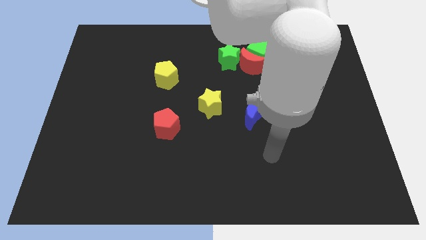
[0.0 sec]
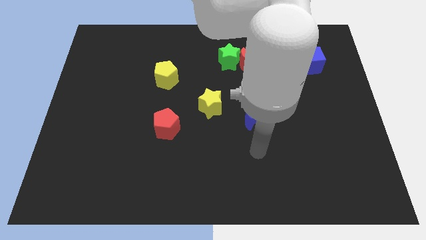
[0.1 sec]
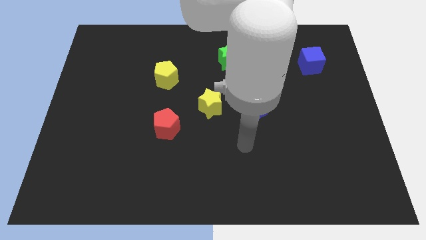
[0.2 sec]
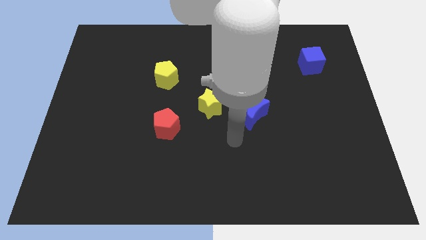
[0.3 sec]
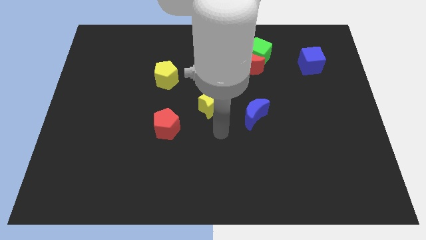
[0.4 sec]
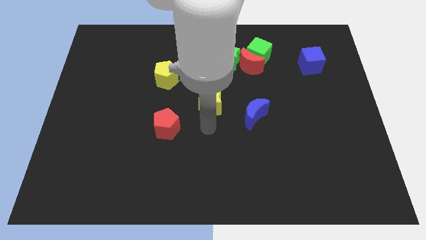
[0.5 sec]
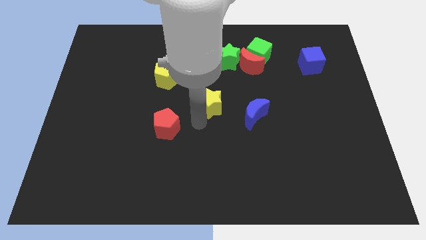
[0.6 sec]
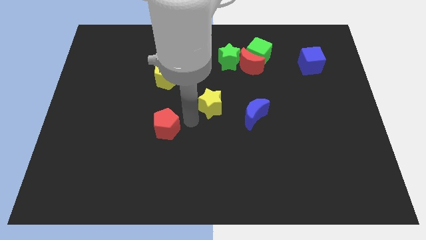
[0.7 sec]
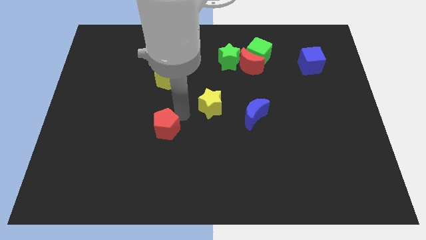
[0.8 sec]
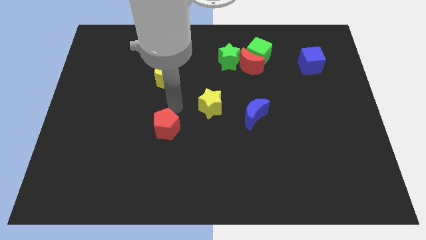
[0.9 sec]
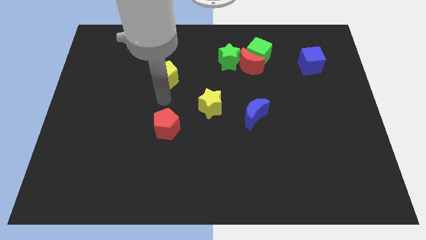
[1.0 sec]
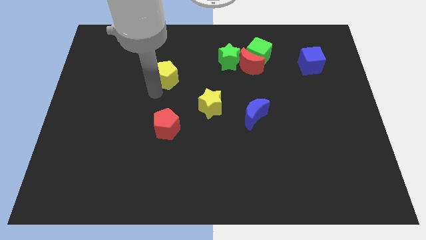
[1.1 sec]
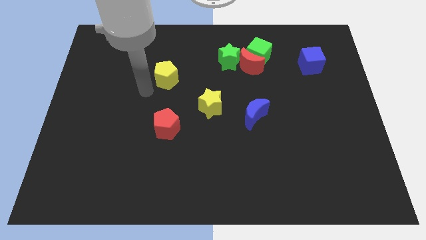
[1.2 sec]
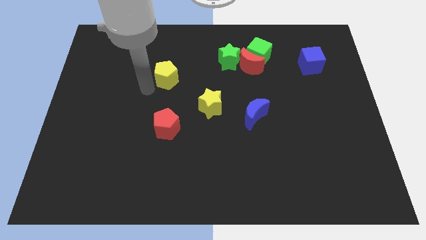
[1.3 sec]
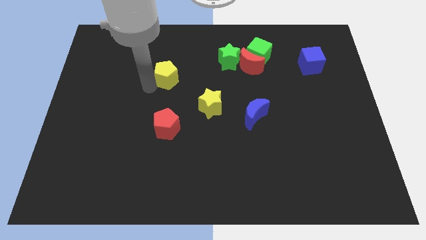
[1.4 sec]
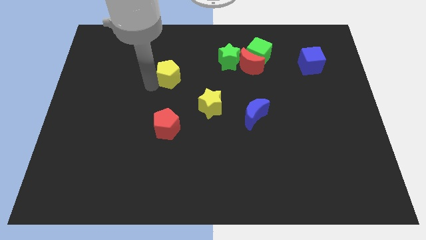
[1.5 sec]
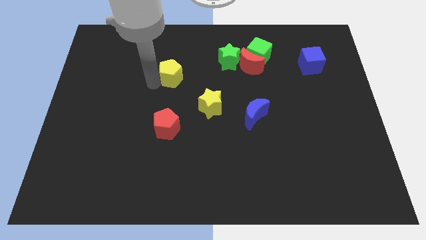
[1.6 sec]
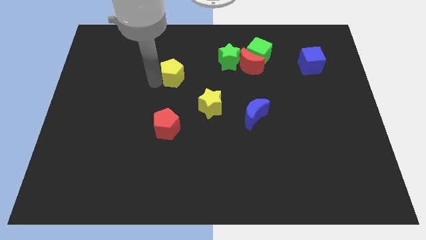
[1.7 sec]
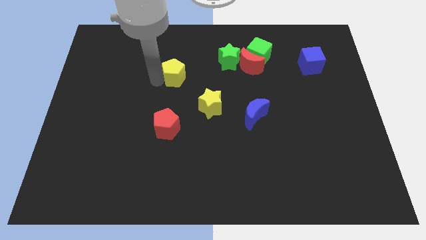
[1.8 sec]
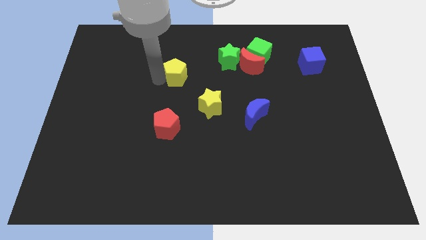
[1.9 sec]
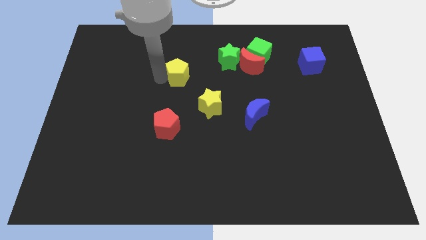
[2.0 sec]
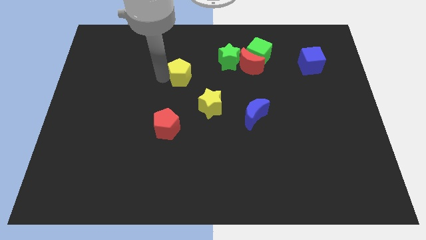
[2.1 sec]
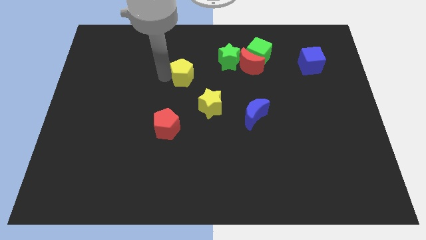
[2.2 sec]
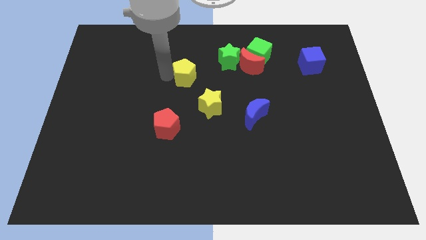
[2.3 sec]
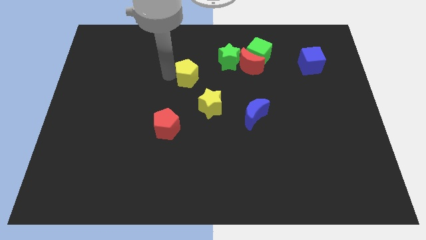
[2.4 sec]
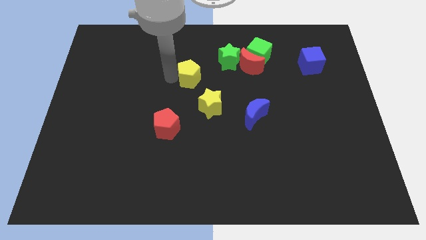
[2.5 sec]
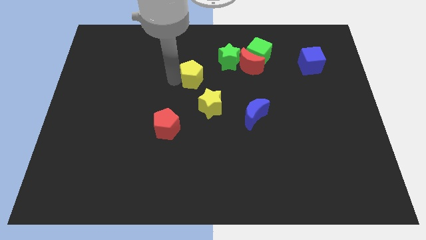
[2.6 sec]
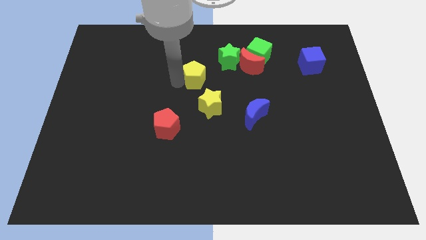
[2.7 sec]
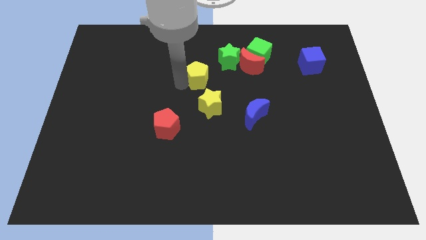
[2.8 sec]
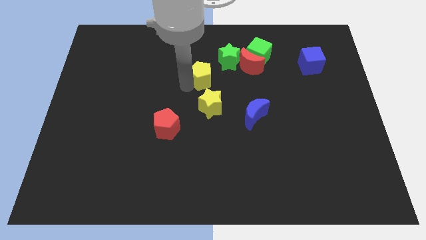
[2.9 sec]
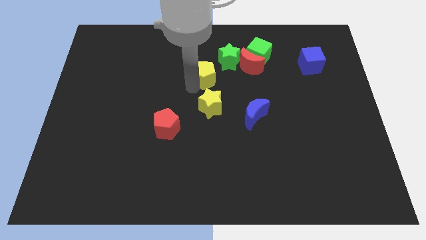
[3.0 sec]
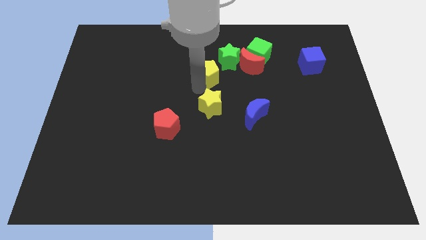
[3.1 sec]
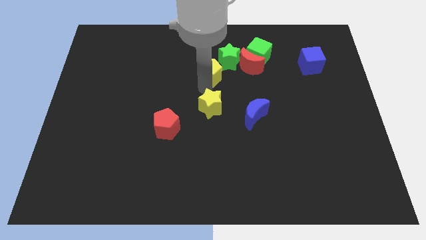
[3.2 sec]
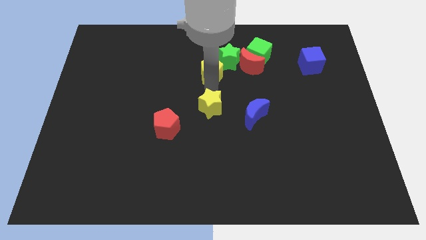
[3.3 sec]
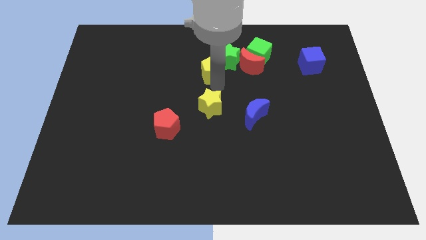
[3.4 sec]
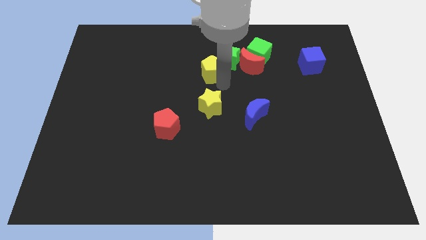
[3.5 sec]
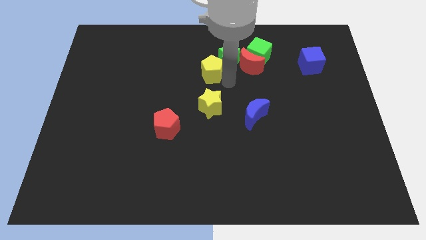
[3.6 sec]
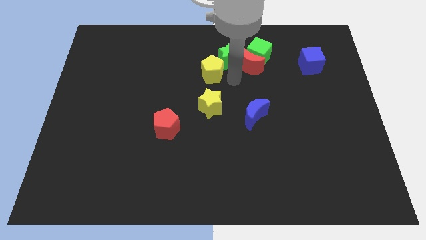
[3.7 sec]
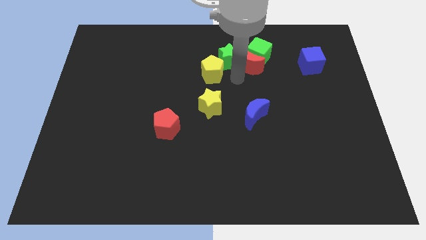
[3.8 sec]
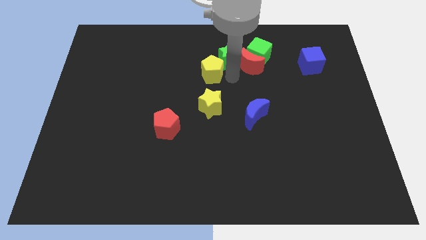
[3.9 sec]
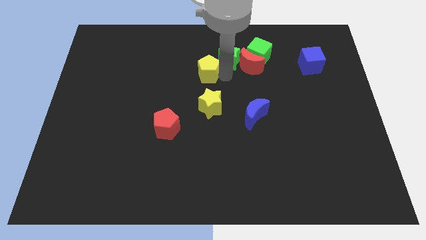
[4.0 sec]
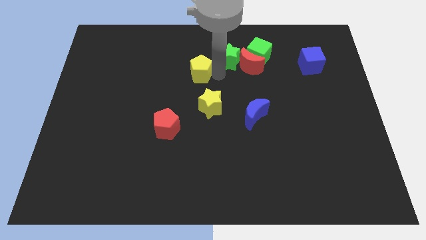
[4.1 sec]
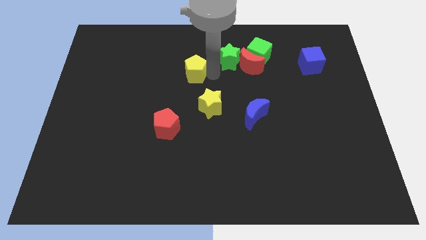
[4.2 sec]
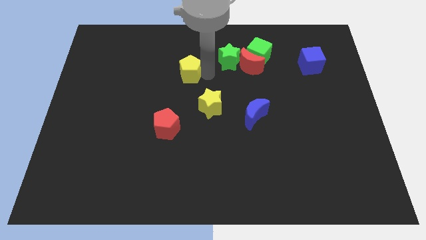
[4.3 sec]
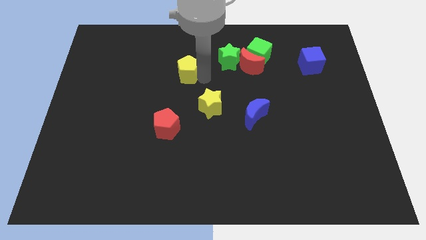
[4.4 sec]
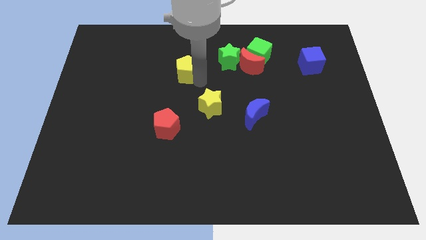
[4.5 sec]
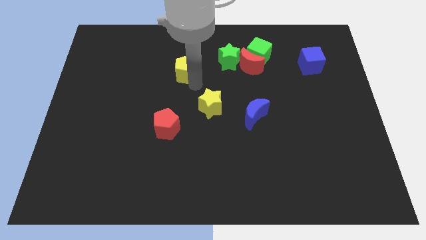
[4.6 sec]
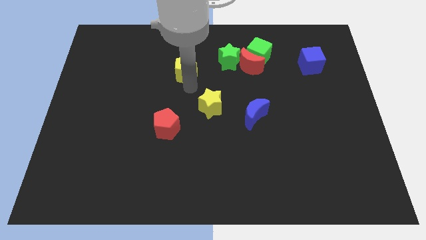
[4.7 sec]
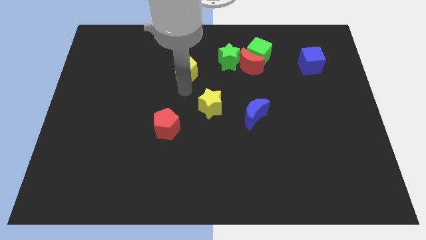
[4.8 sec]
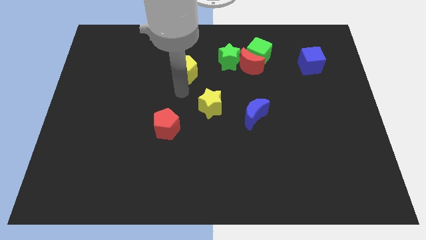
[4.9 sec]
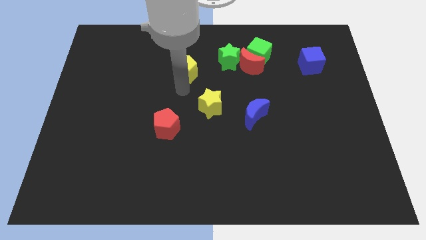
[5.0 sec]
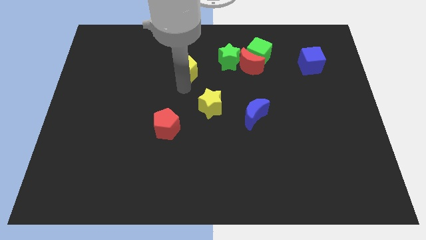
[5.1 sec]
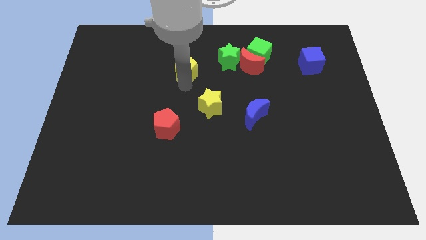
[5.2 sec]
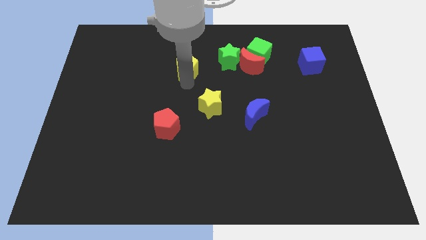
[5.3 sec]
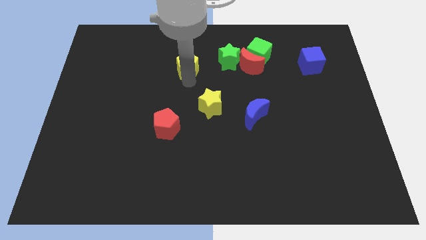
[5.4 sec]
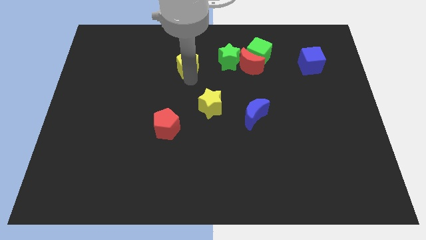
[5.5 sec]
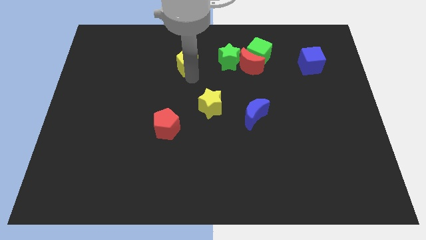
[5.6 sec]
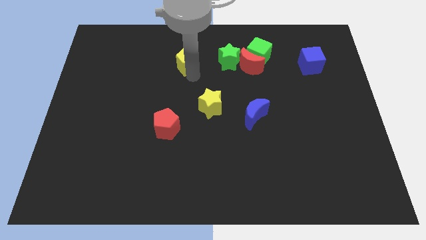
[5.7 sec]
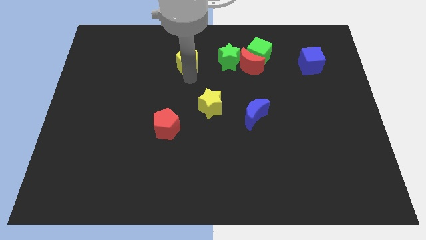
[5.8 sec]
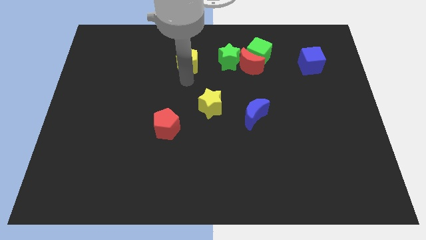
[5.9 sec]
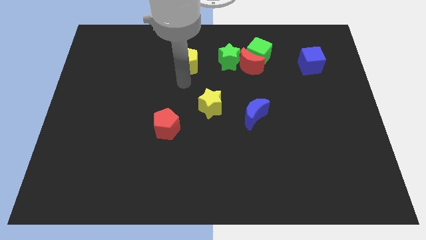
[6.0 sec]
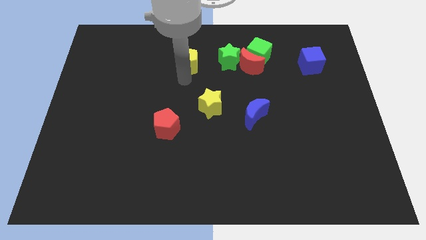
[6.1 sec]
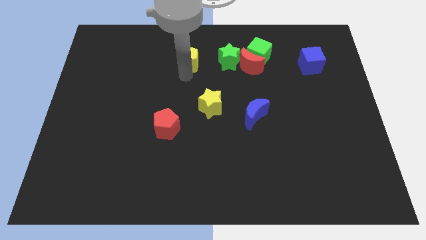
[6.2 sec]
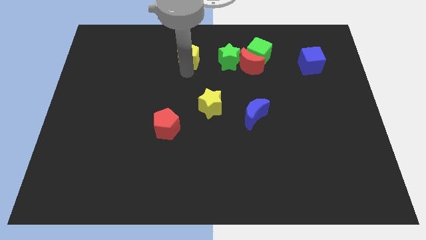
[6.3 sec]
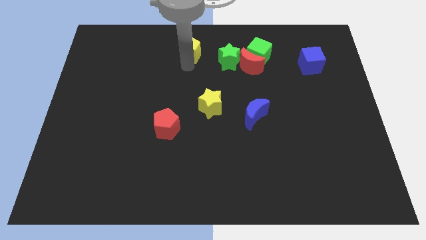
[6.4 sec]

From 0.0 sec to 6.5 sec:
put the yellow pentagon to the top

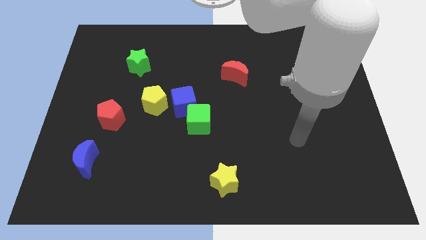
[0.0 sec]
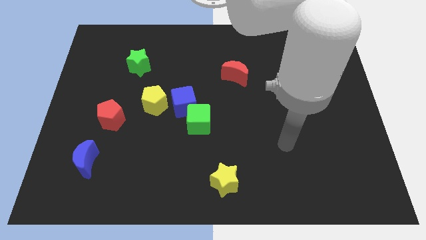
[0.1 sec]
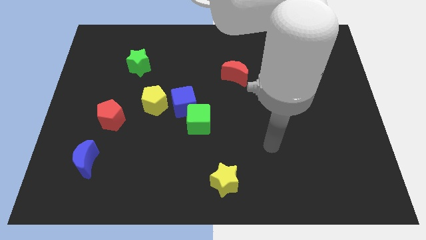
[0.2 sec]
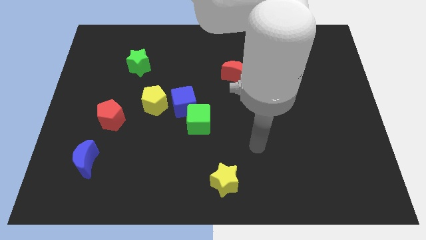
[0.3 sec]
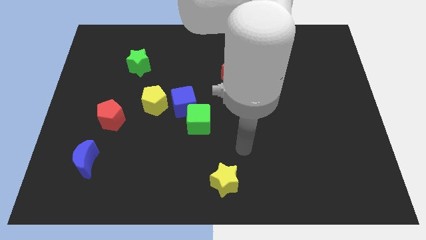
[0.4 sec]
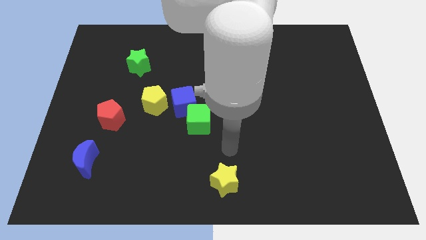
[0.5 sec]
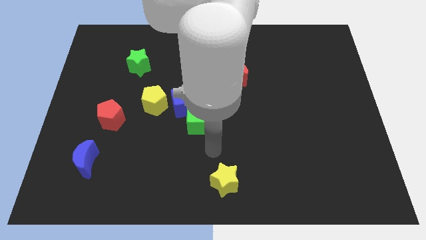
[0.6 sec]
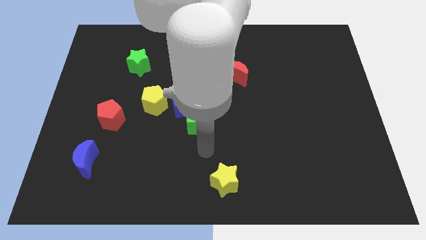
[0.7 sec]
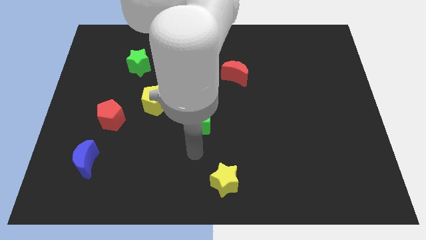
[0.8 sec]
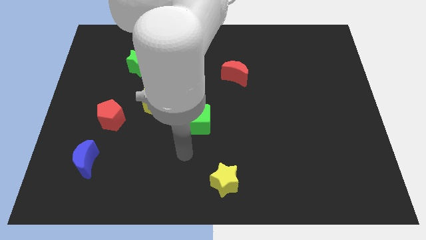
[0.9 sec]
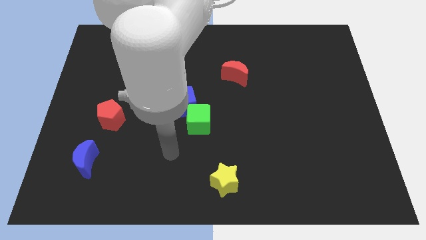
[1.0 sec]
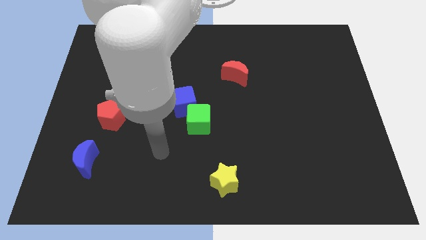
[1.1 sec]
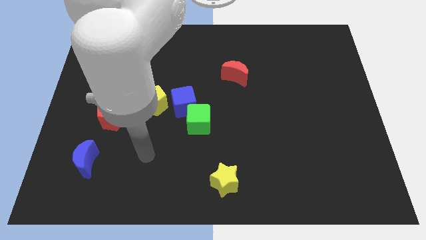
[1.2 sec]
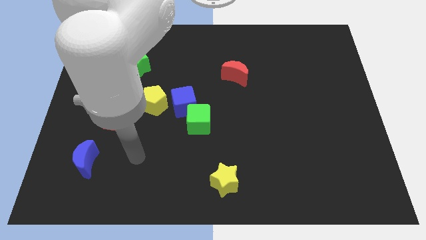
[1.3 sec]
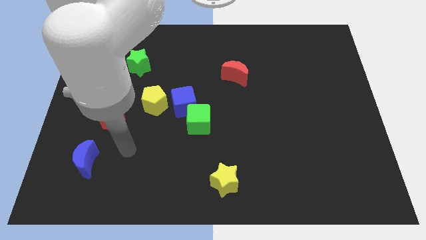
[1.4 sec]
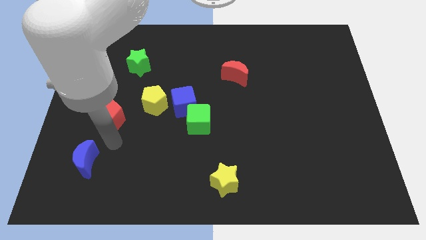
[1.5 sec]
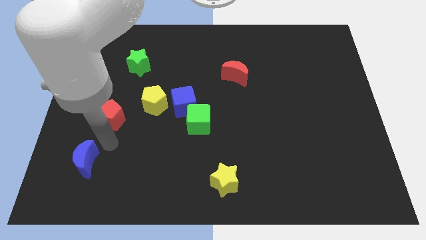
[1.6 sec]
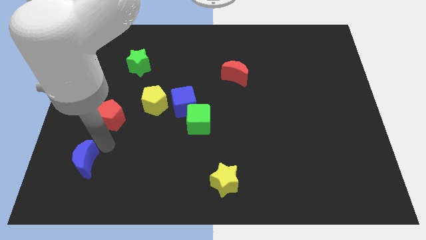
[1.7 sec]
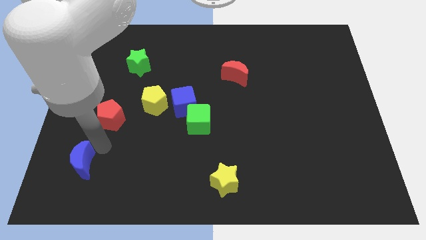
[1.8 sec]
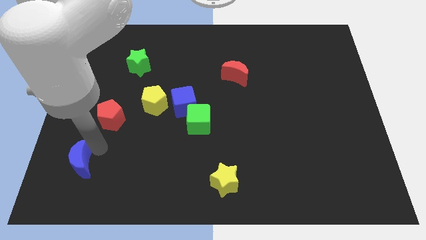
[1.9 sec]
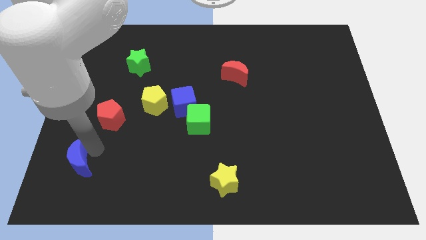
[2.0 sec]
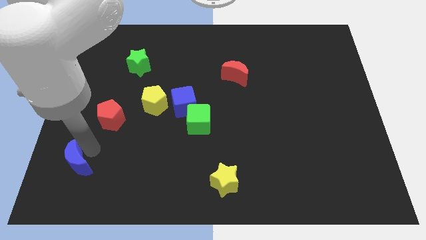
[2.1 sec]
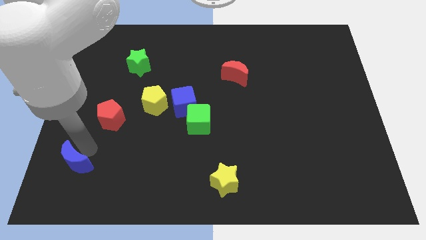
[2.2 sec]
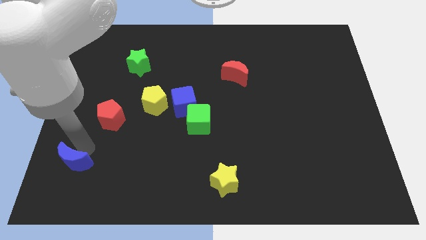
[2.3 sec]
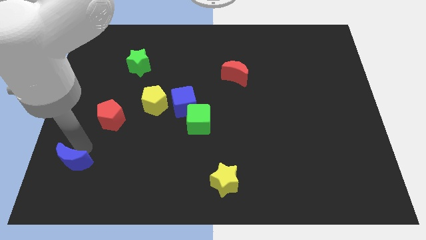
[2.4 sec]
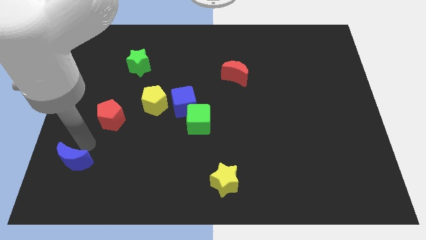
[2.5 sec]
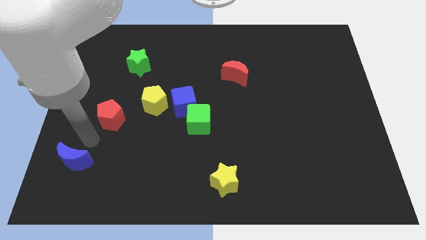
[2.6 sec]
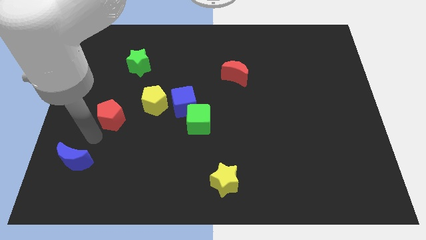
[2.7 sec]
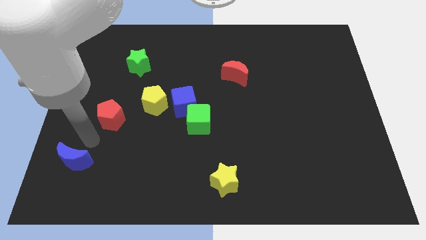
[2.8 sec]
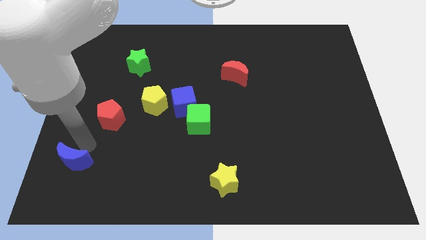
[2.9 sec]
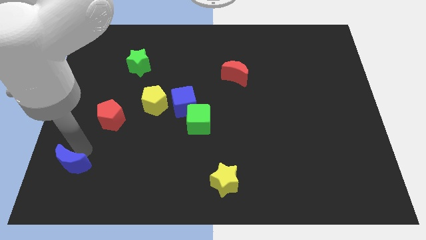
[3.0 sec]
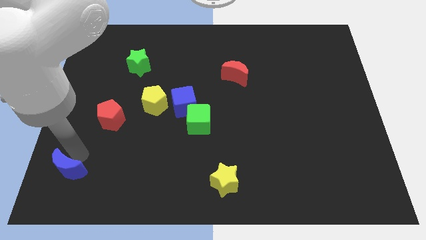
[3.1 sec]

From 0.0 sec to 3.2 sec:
move the blue moon to the bottom left corner
